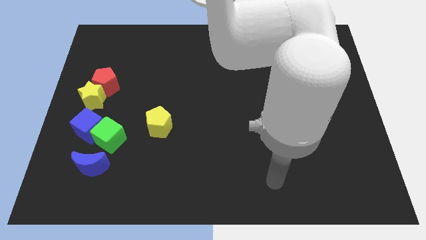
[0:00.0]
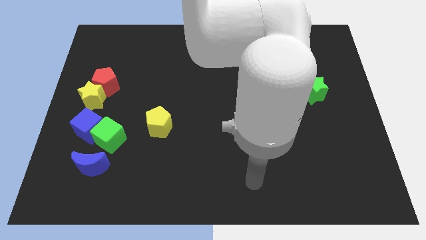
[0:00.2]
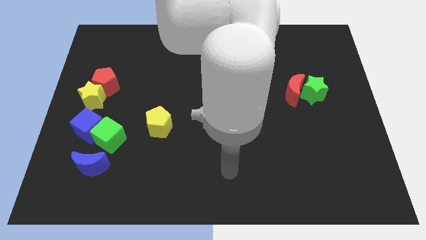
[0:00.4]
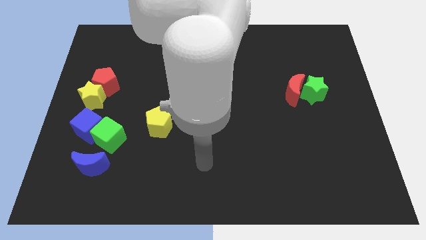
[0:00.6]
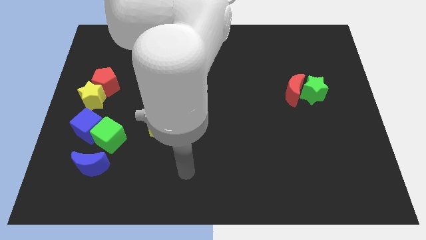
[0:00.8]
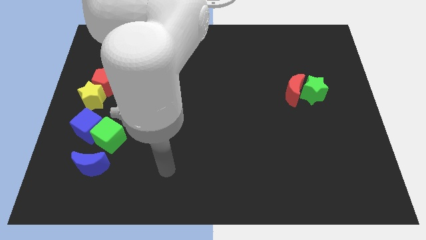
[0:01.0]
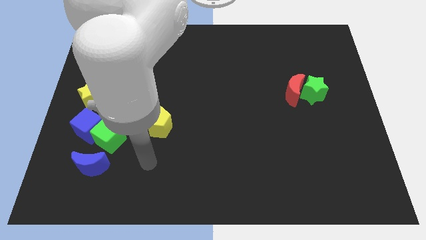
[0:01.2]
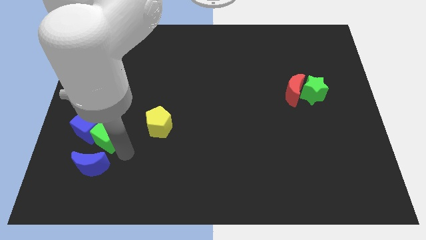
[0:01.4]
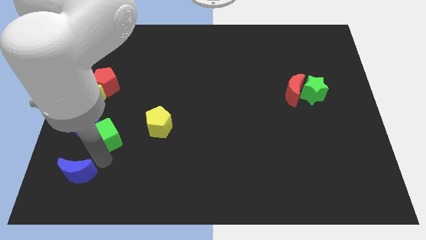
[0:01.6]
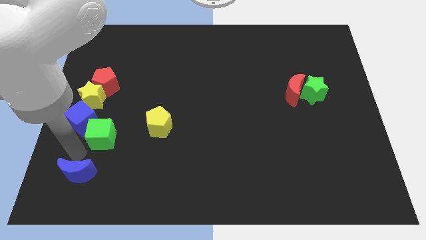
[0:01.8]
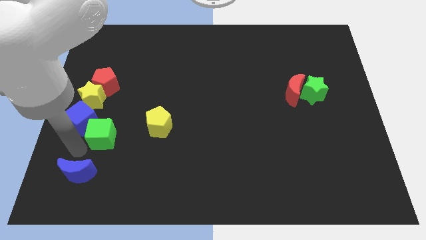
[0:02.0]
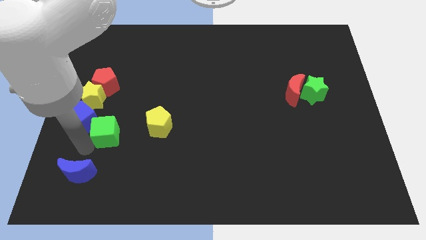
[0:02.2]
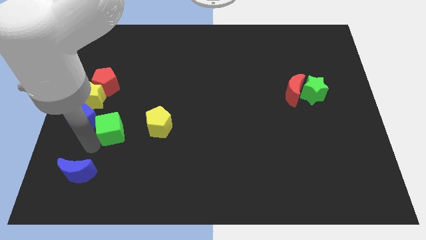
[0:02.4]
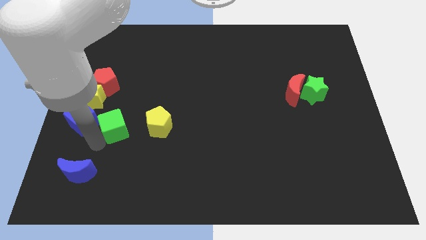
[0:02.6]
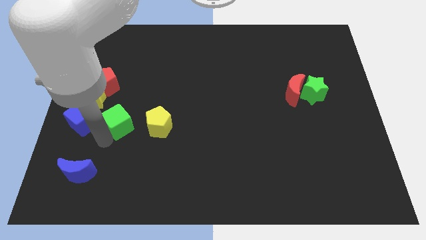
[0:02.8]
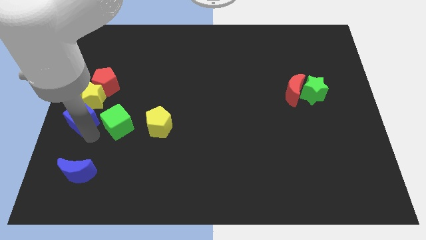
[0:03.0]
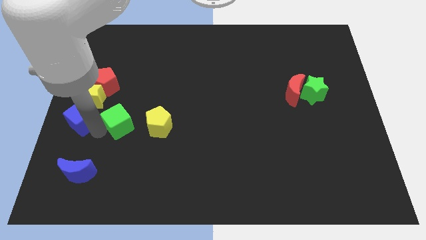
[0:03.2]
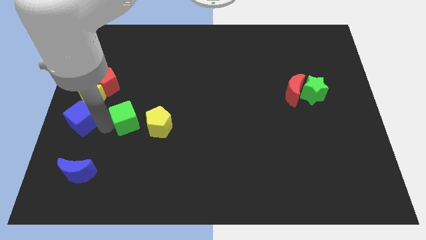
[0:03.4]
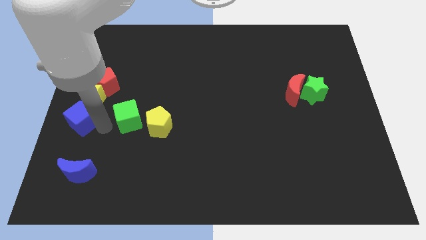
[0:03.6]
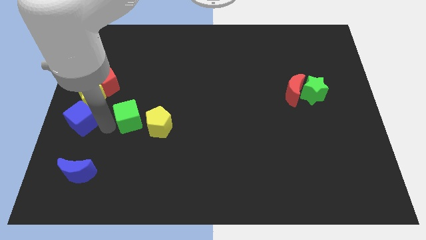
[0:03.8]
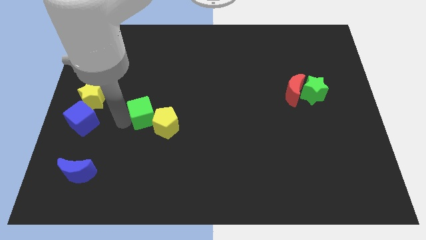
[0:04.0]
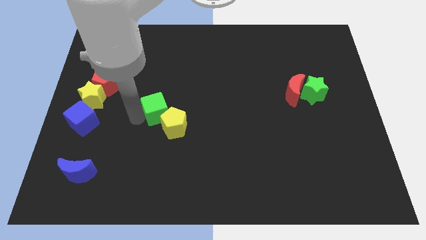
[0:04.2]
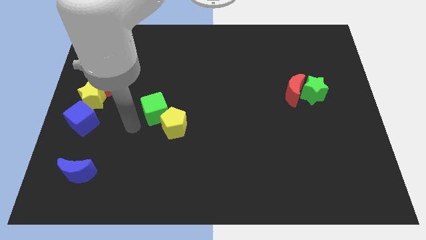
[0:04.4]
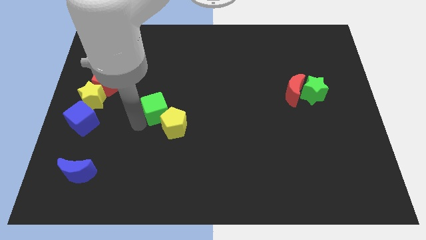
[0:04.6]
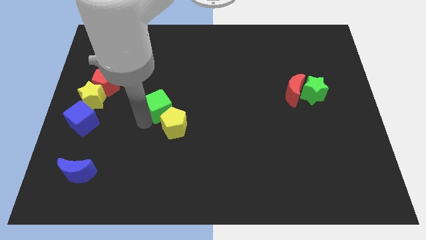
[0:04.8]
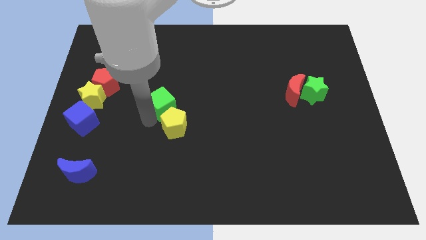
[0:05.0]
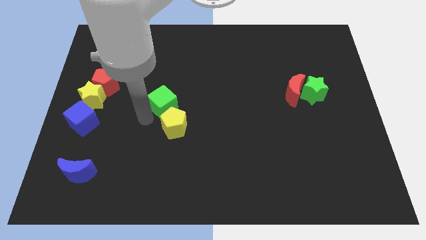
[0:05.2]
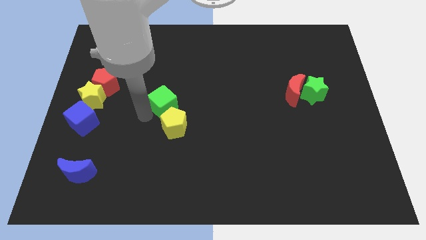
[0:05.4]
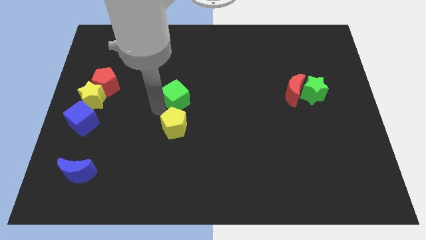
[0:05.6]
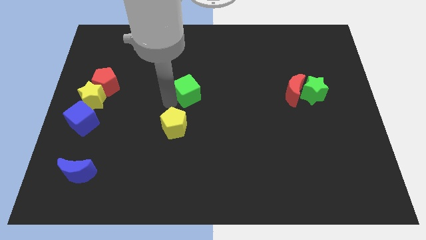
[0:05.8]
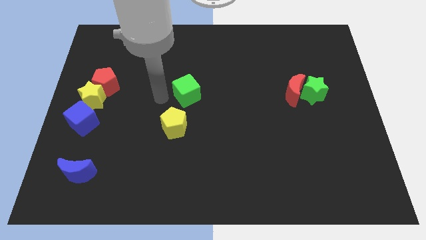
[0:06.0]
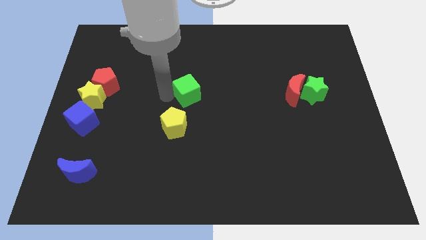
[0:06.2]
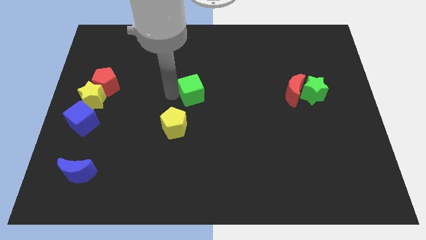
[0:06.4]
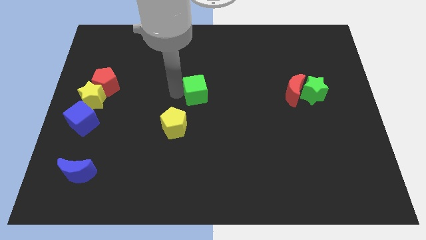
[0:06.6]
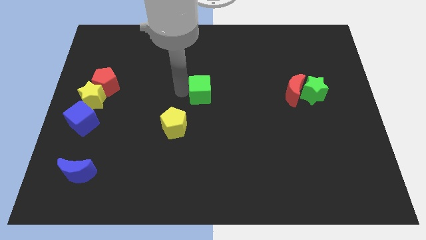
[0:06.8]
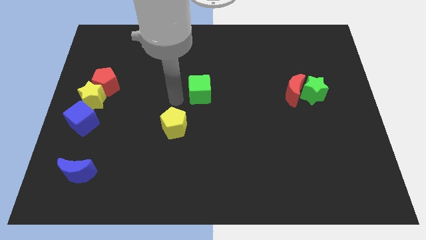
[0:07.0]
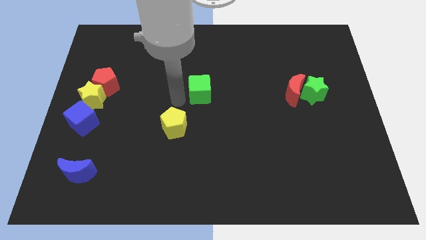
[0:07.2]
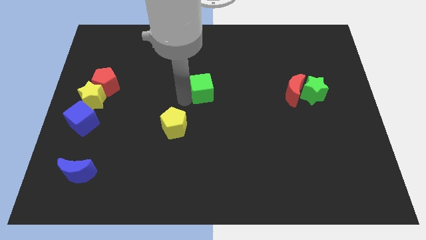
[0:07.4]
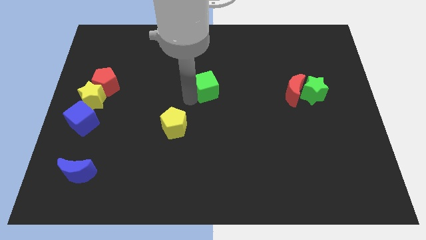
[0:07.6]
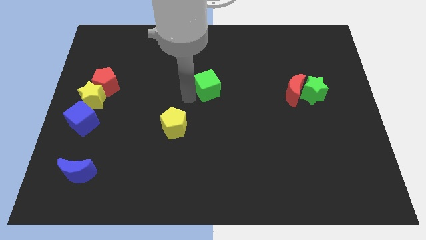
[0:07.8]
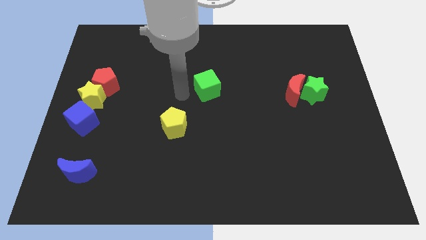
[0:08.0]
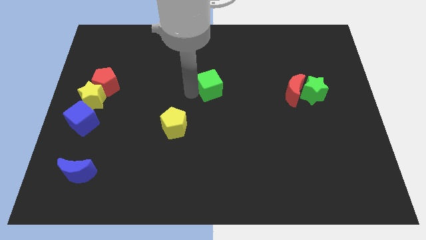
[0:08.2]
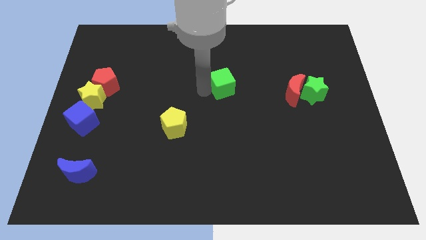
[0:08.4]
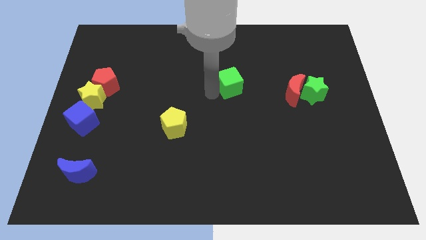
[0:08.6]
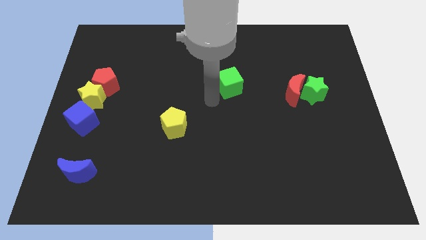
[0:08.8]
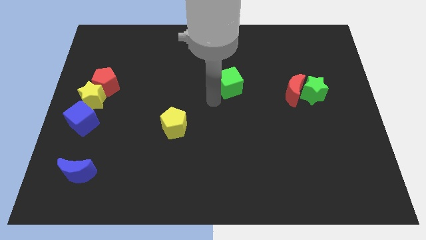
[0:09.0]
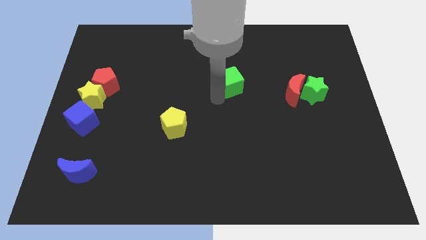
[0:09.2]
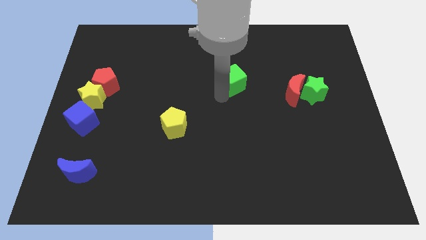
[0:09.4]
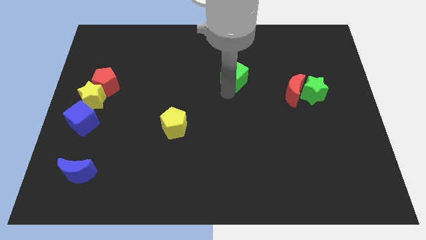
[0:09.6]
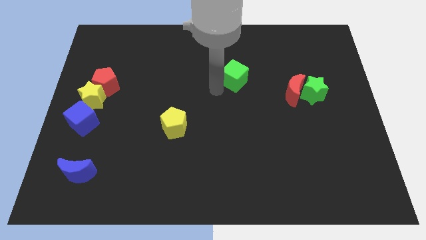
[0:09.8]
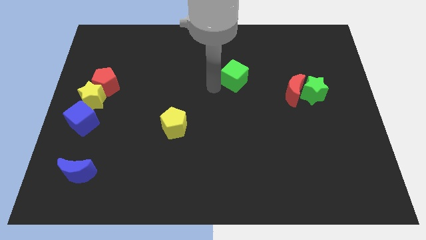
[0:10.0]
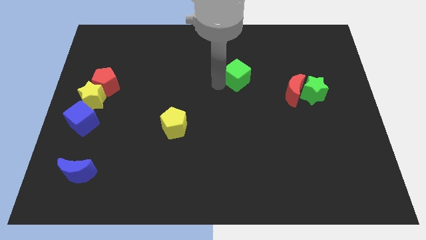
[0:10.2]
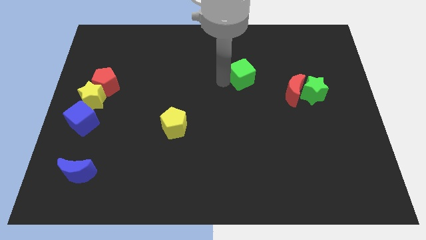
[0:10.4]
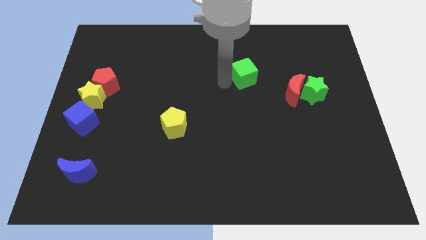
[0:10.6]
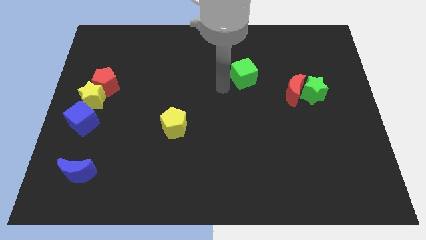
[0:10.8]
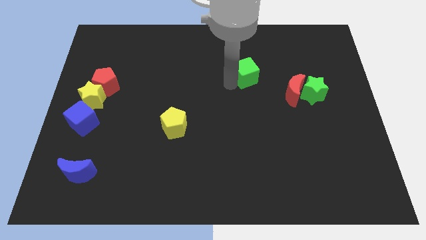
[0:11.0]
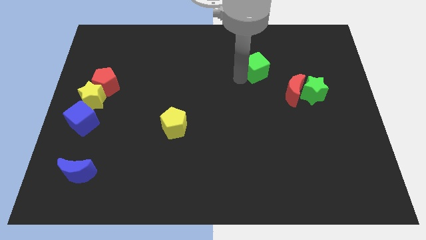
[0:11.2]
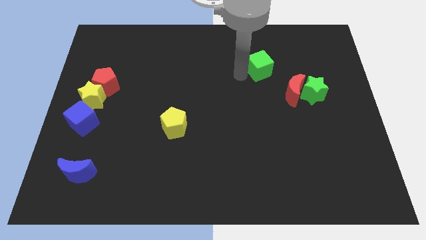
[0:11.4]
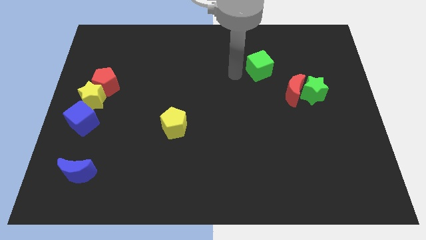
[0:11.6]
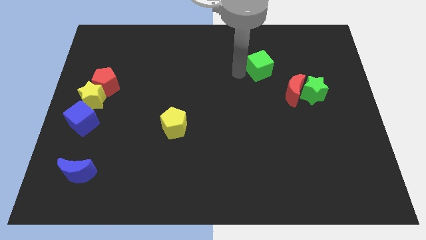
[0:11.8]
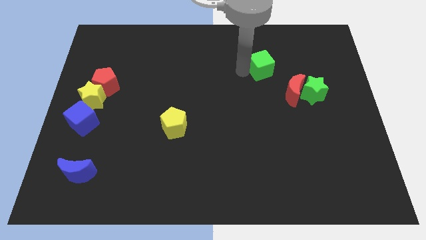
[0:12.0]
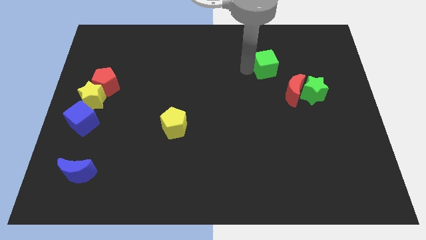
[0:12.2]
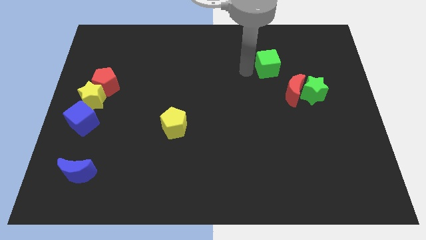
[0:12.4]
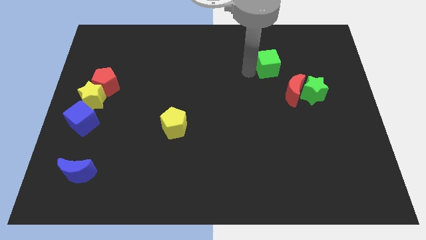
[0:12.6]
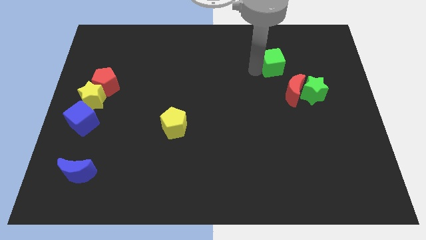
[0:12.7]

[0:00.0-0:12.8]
put the green cube to the top side of the red moon
